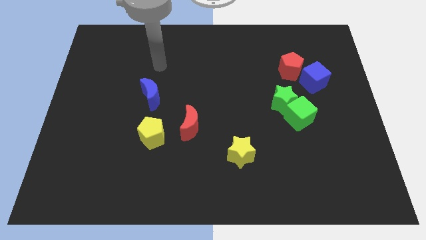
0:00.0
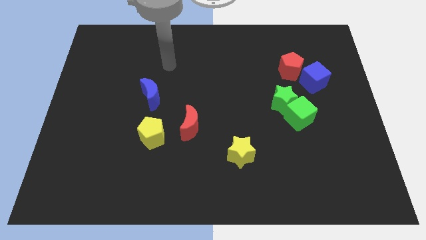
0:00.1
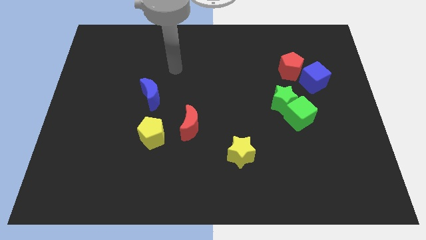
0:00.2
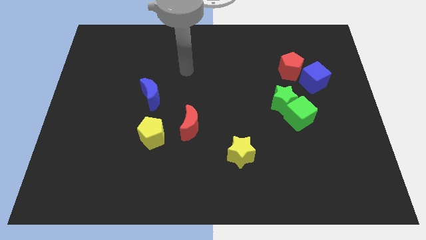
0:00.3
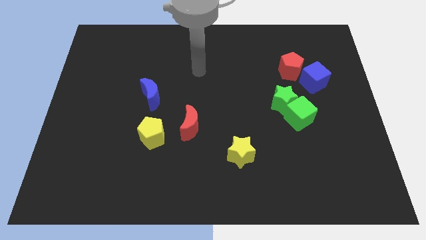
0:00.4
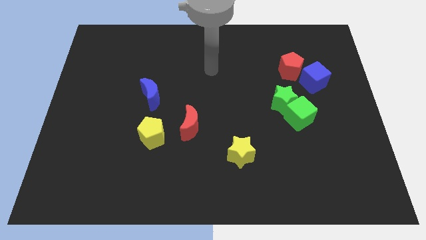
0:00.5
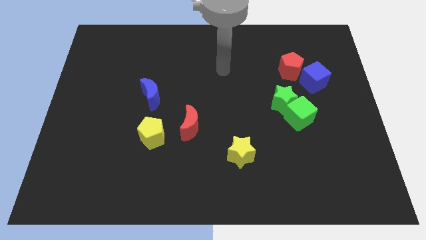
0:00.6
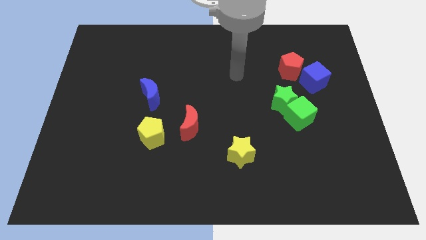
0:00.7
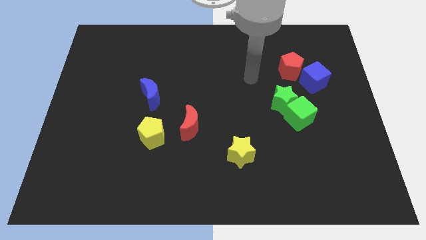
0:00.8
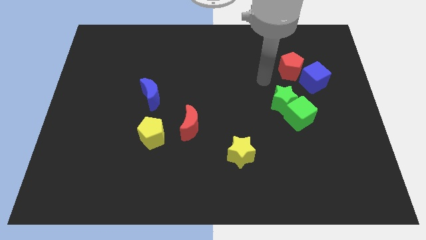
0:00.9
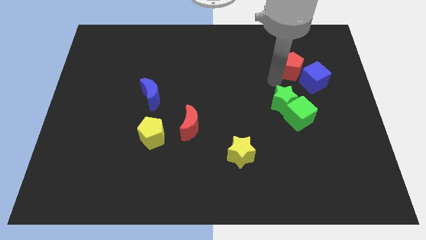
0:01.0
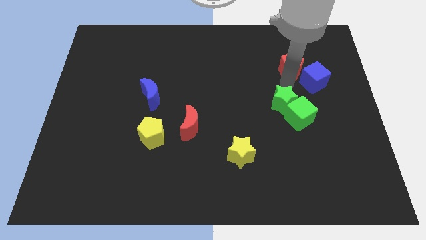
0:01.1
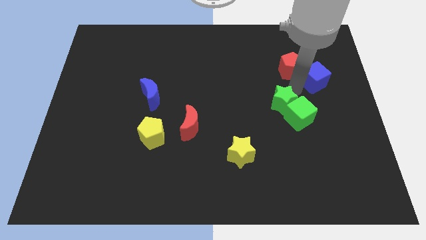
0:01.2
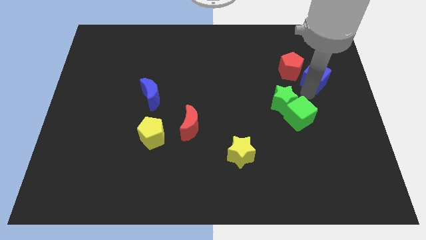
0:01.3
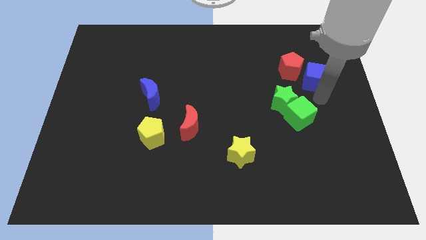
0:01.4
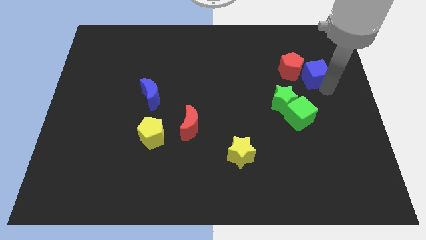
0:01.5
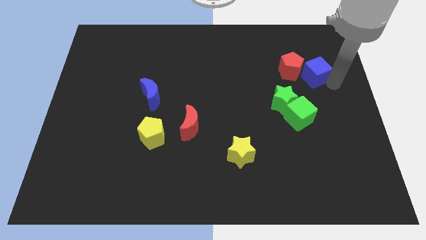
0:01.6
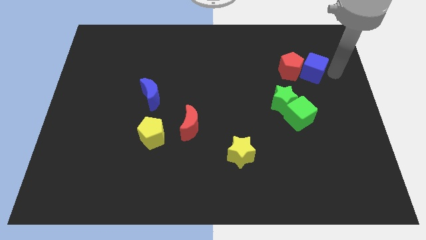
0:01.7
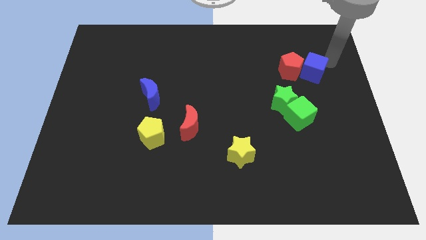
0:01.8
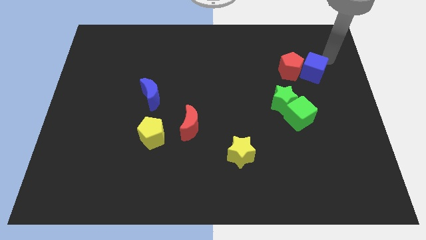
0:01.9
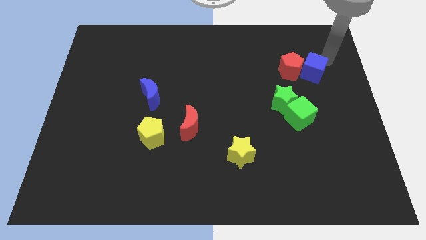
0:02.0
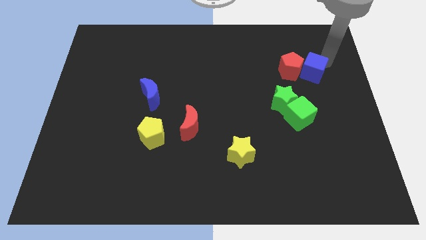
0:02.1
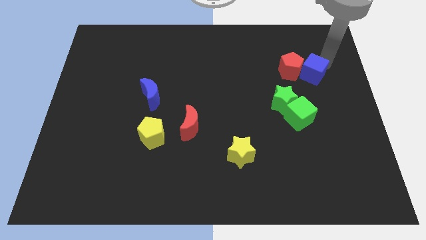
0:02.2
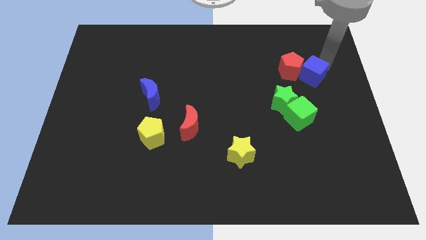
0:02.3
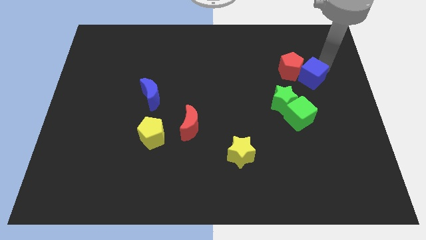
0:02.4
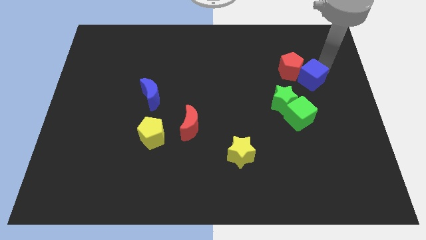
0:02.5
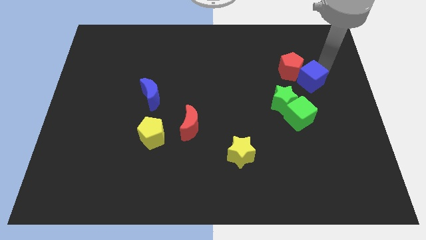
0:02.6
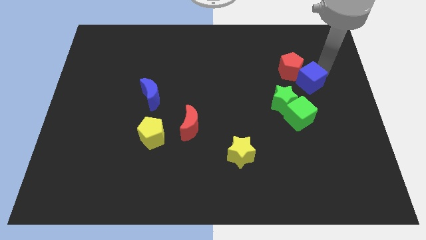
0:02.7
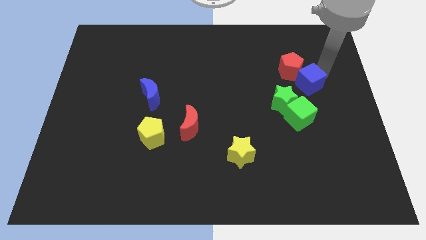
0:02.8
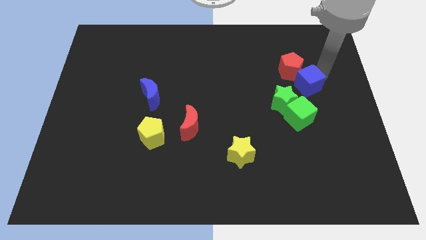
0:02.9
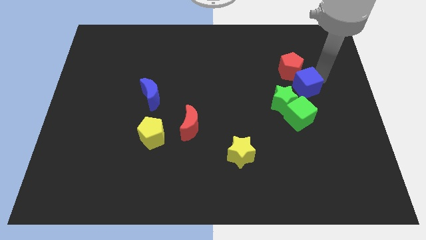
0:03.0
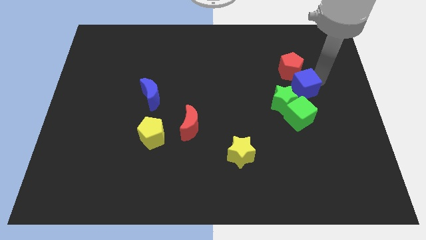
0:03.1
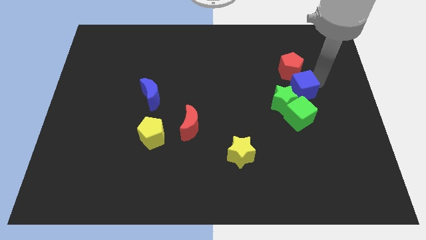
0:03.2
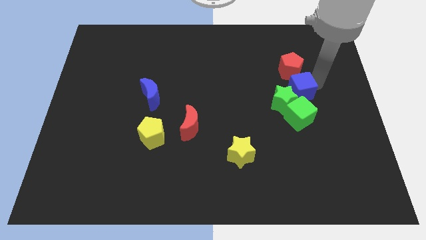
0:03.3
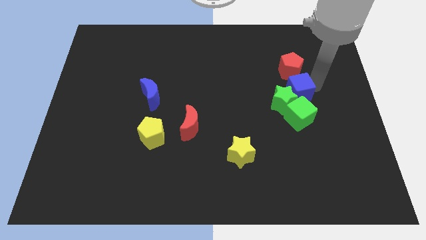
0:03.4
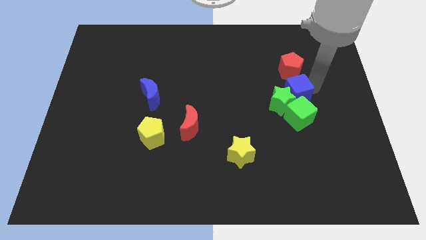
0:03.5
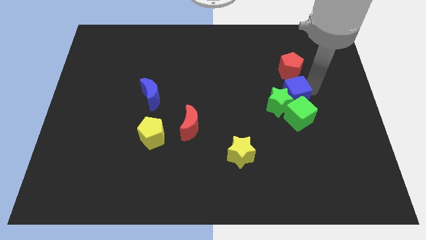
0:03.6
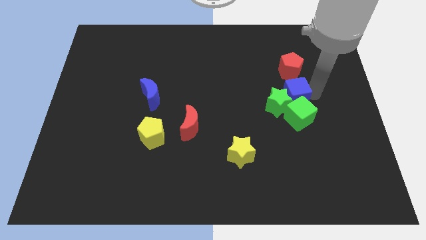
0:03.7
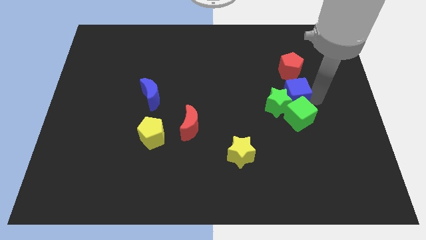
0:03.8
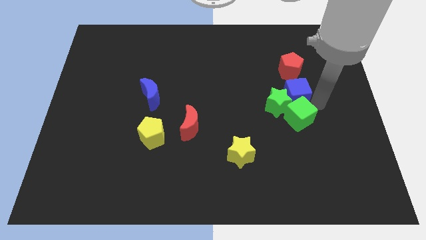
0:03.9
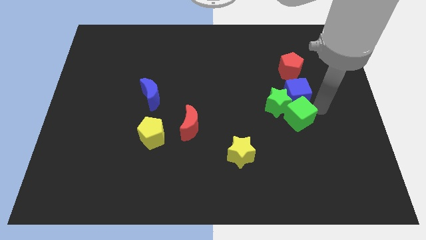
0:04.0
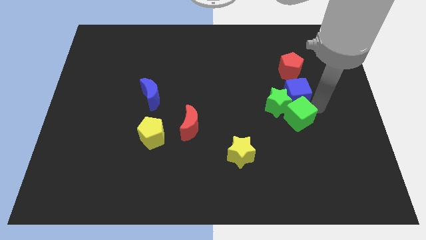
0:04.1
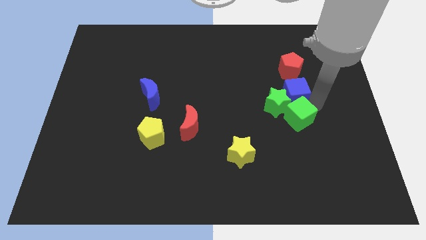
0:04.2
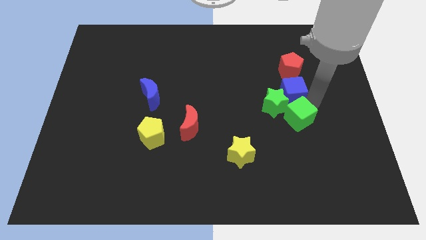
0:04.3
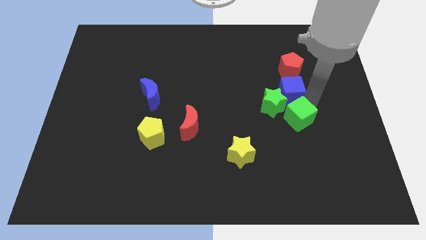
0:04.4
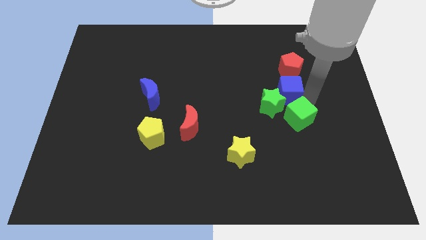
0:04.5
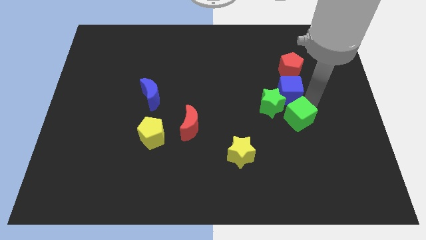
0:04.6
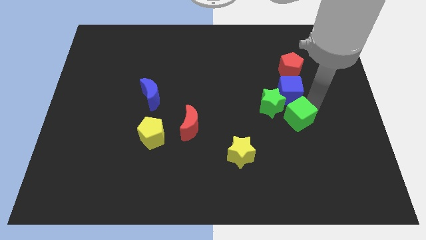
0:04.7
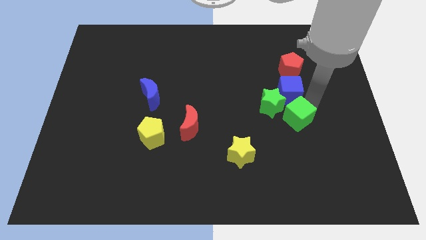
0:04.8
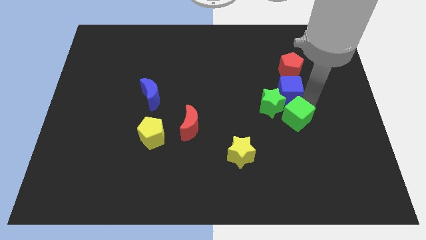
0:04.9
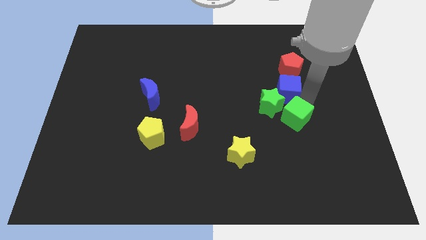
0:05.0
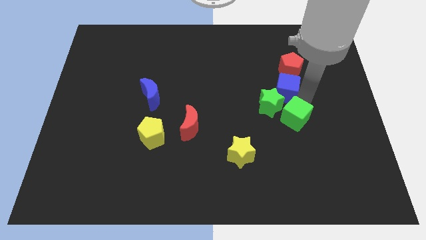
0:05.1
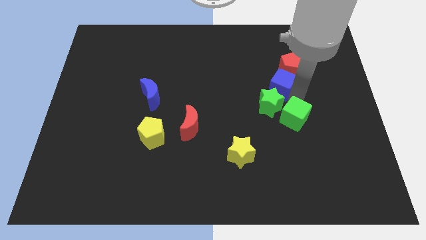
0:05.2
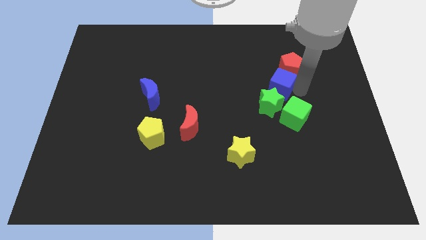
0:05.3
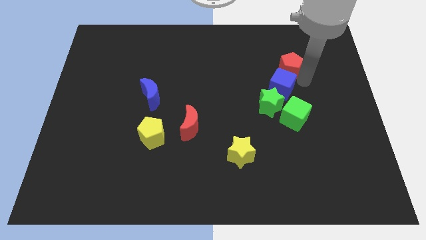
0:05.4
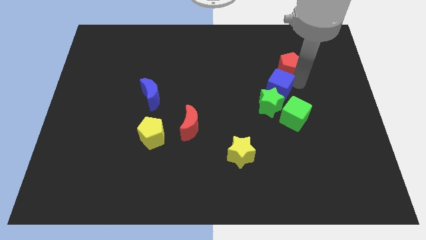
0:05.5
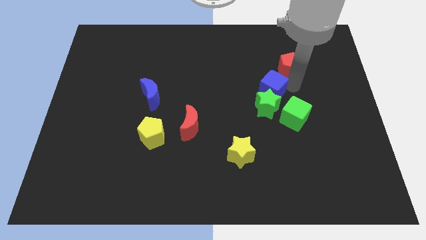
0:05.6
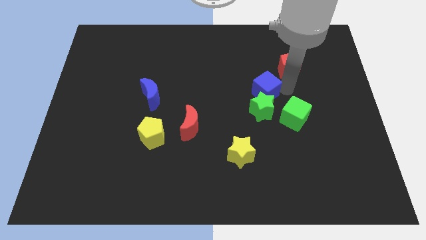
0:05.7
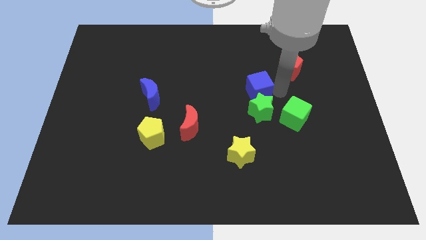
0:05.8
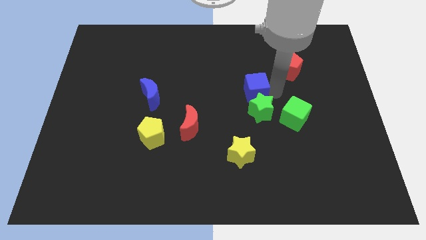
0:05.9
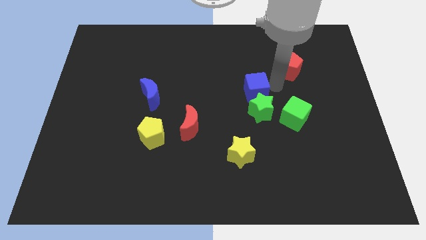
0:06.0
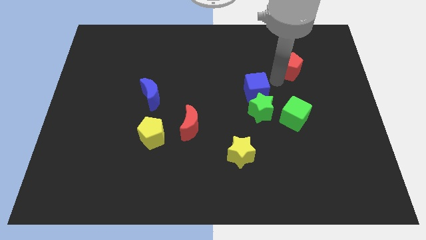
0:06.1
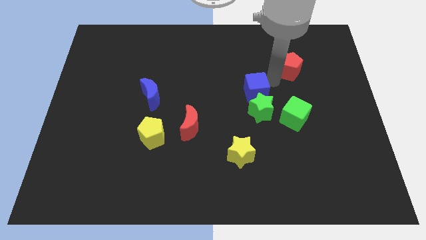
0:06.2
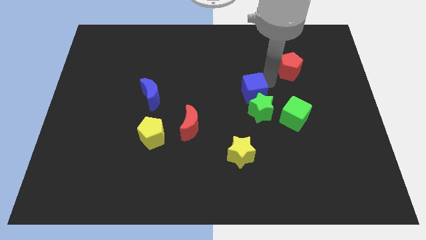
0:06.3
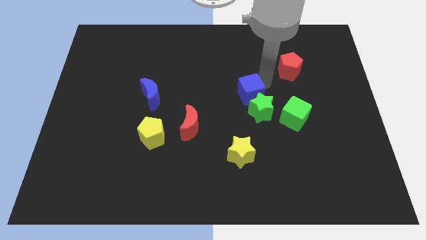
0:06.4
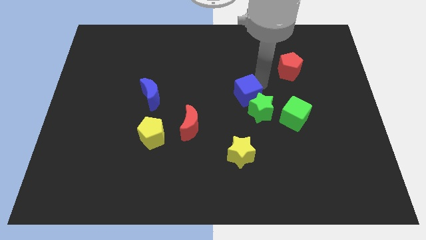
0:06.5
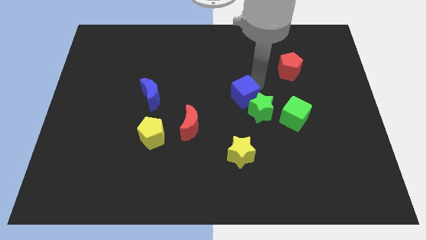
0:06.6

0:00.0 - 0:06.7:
put the blue cube just left of the green star

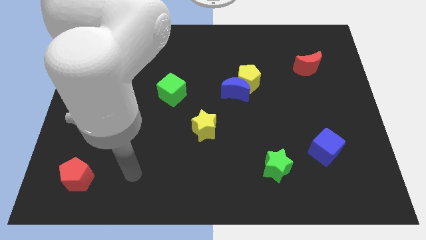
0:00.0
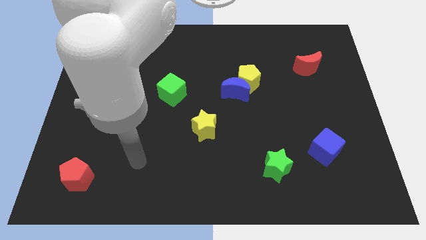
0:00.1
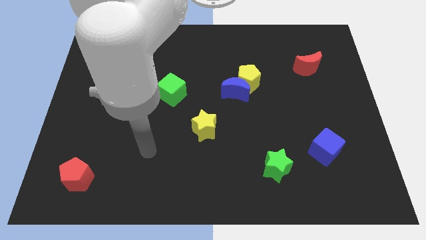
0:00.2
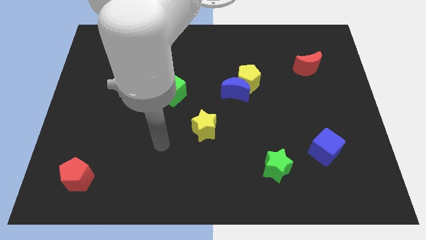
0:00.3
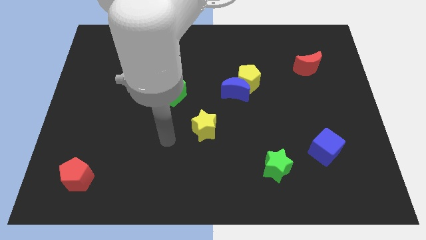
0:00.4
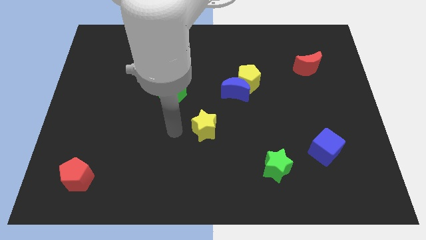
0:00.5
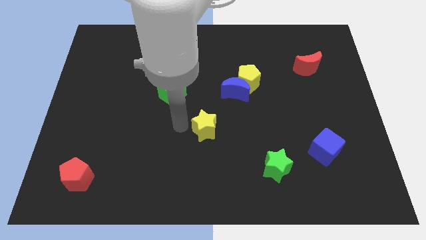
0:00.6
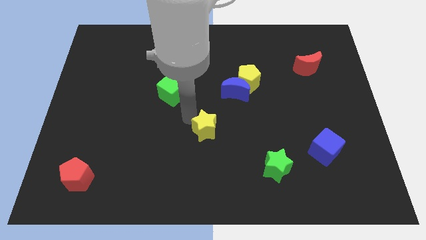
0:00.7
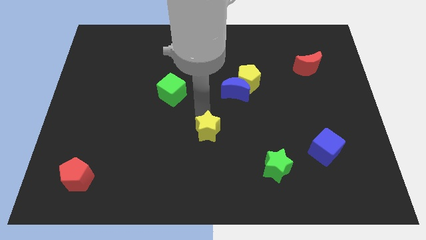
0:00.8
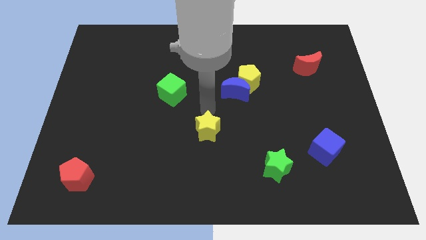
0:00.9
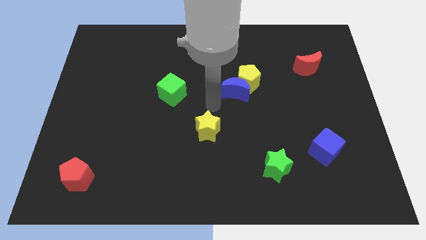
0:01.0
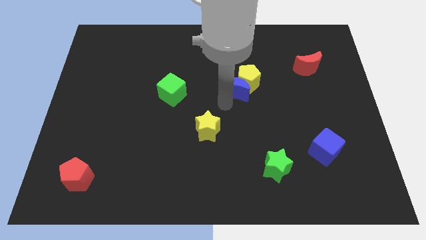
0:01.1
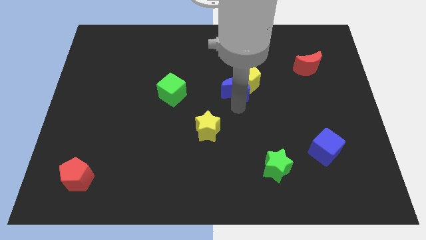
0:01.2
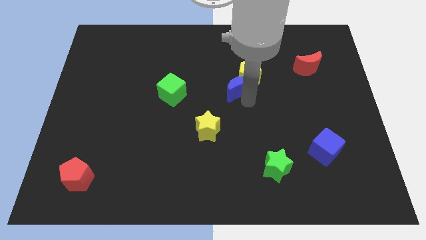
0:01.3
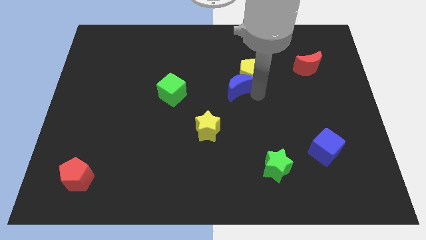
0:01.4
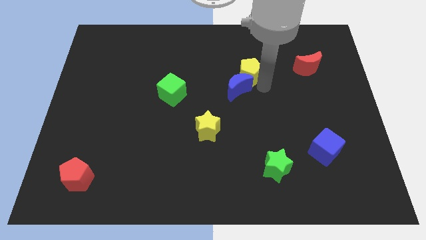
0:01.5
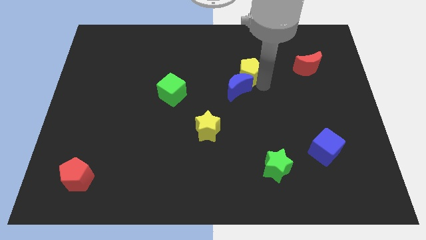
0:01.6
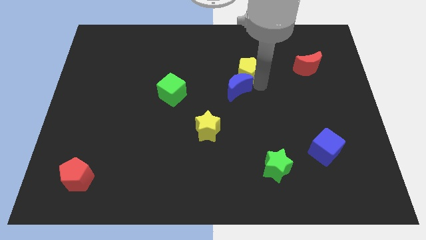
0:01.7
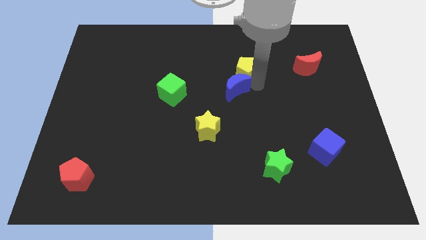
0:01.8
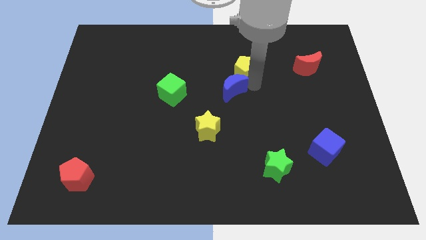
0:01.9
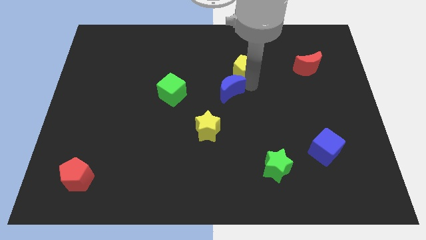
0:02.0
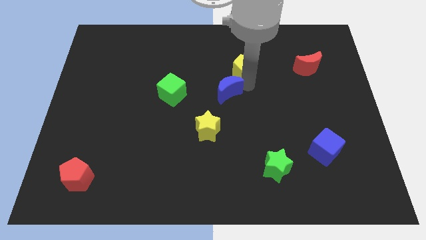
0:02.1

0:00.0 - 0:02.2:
put the blue moon above the yellow star
